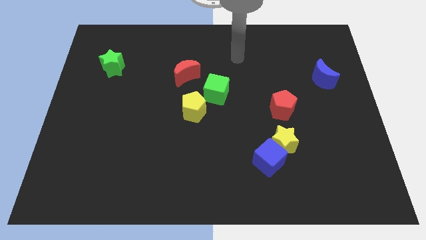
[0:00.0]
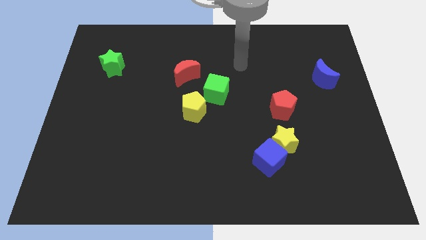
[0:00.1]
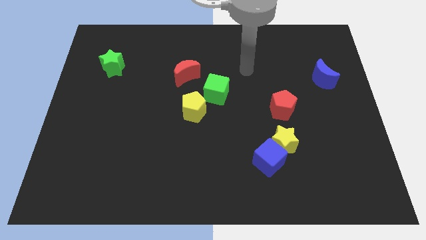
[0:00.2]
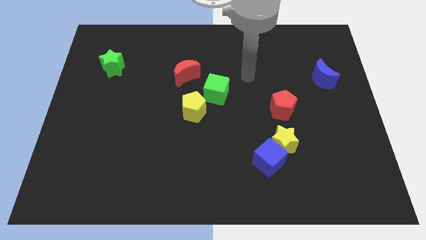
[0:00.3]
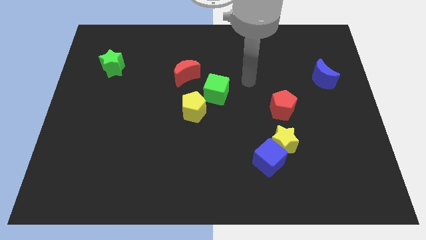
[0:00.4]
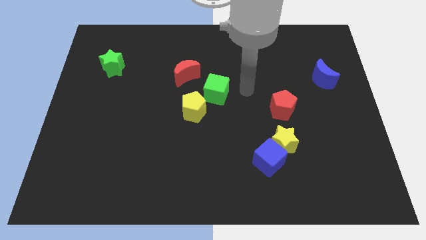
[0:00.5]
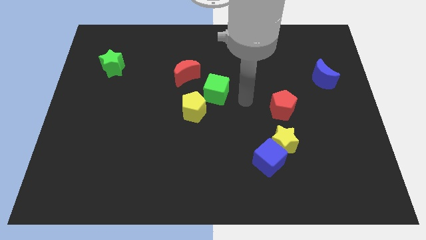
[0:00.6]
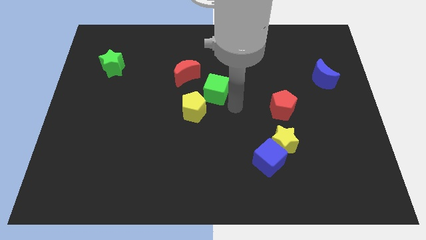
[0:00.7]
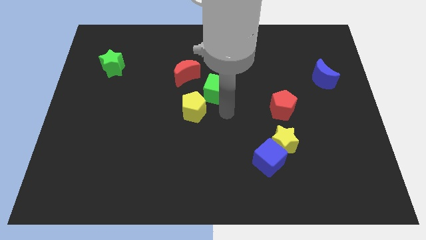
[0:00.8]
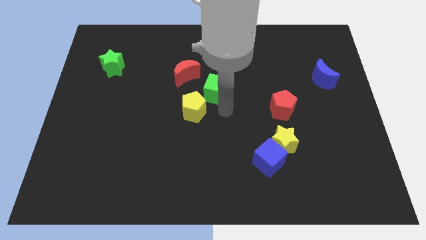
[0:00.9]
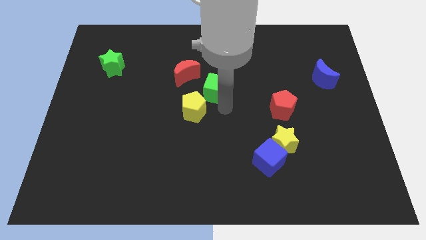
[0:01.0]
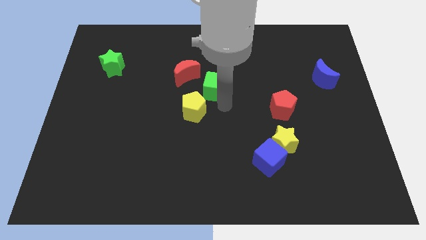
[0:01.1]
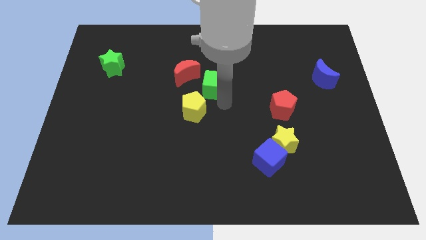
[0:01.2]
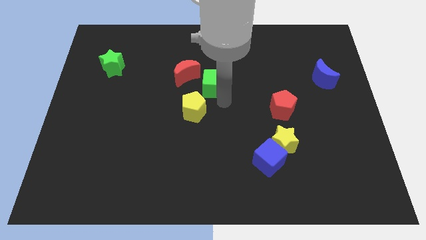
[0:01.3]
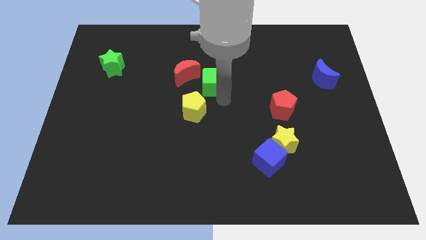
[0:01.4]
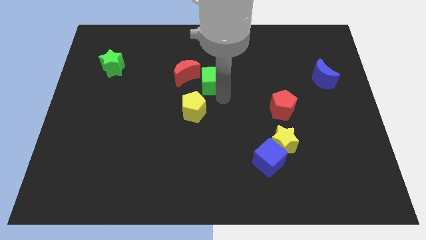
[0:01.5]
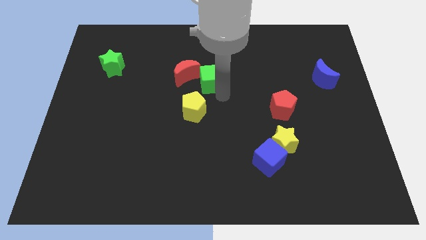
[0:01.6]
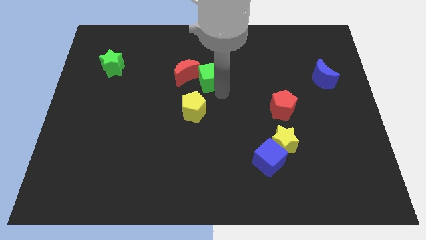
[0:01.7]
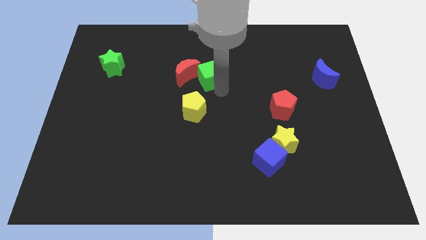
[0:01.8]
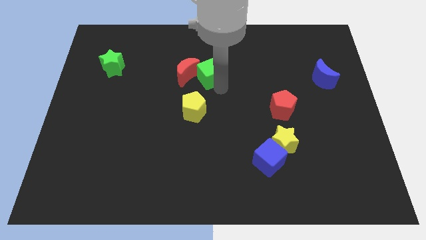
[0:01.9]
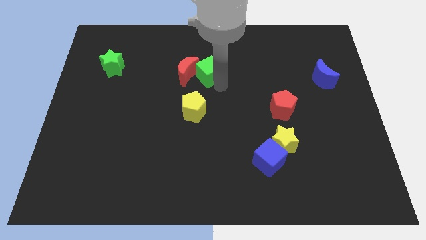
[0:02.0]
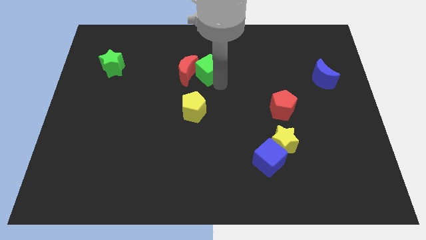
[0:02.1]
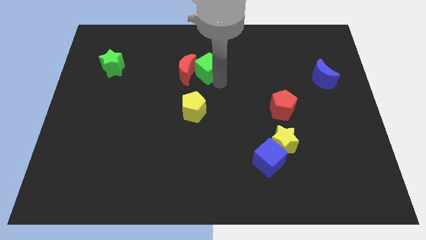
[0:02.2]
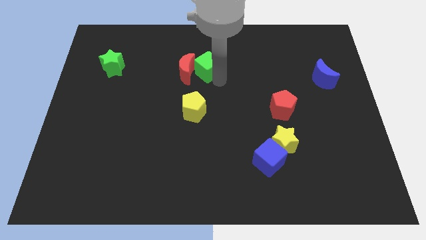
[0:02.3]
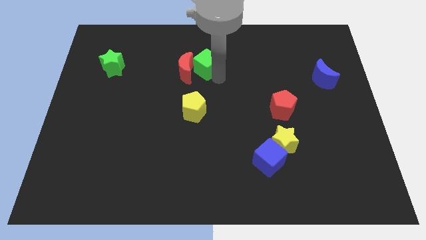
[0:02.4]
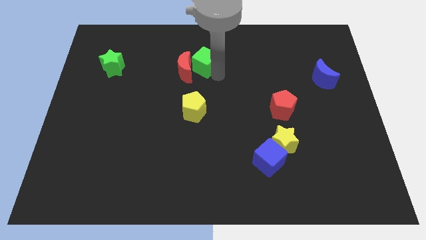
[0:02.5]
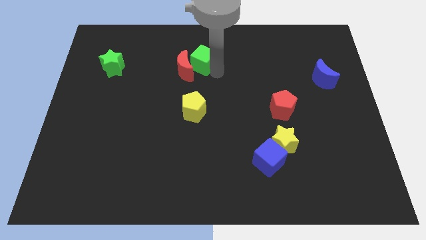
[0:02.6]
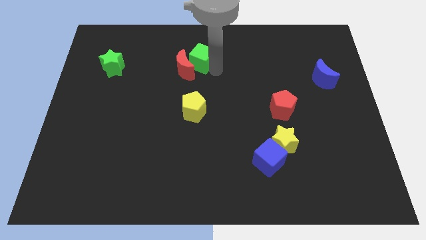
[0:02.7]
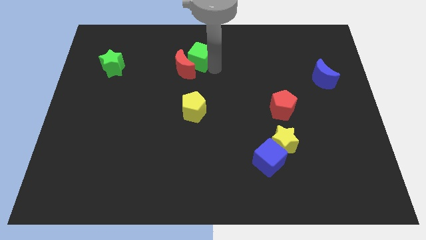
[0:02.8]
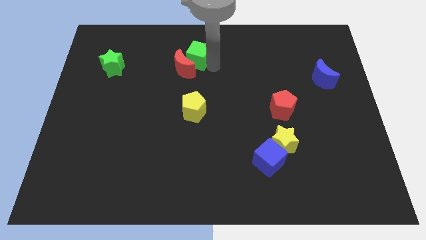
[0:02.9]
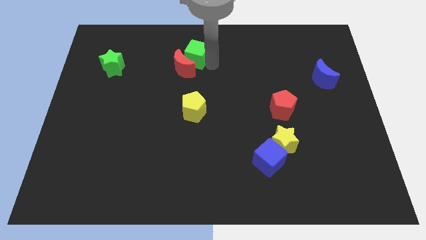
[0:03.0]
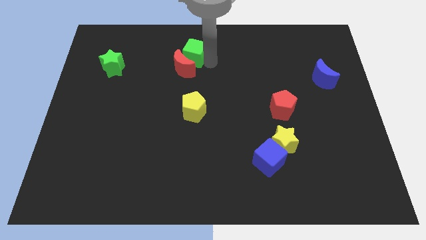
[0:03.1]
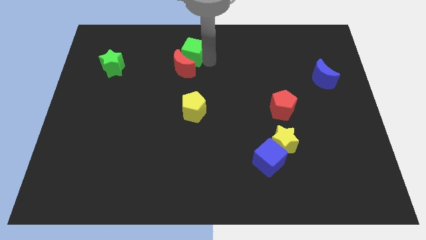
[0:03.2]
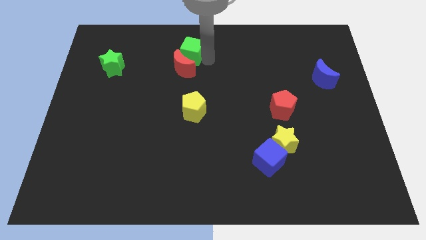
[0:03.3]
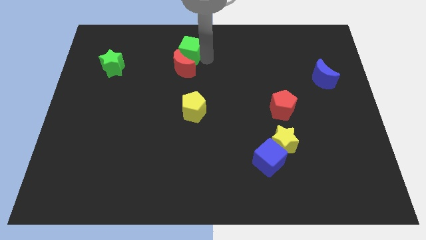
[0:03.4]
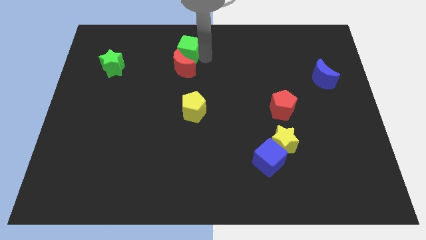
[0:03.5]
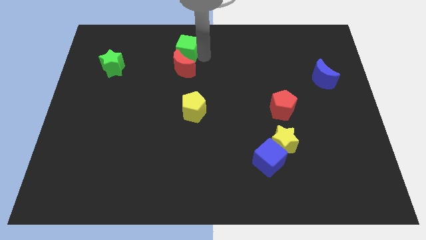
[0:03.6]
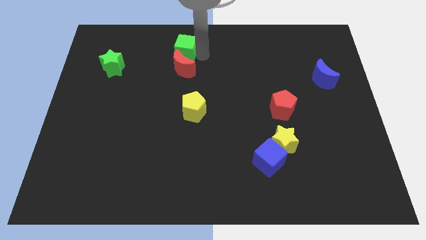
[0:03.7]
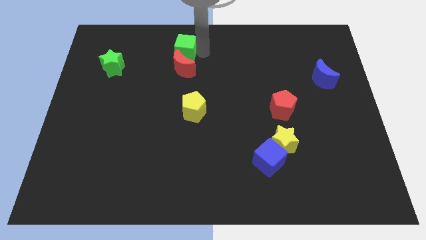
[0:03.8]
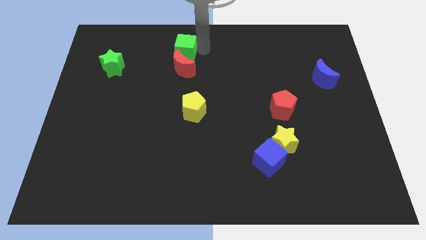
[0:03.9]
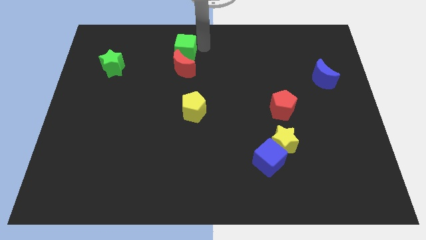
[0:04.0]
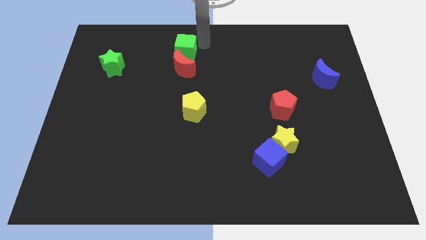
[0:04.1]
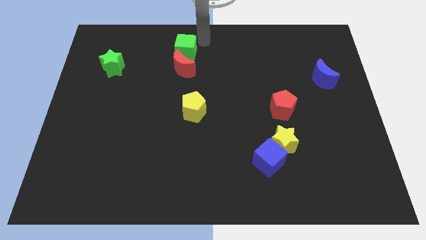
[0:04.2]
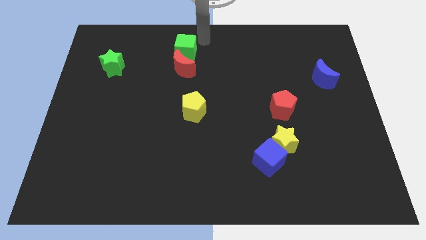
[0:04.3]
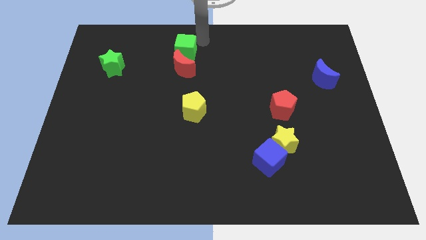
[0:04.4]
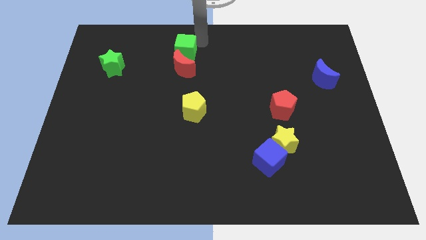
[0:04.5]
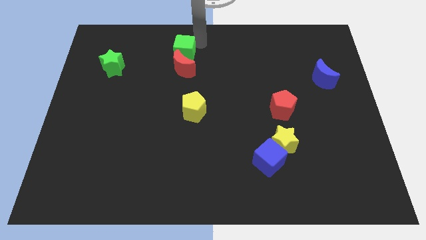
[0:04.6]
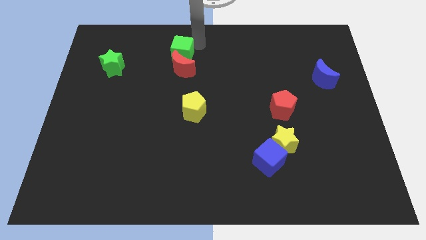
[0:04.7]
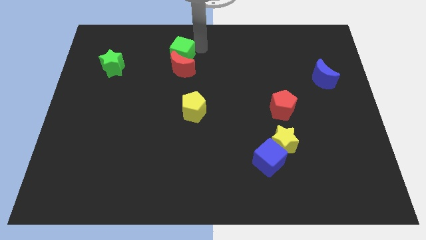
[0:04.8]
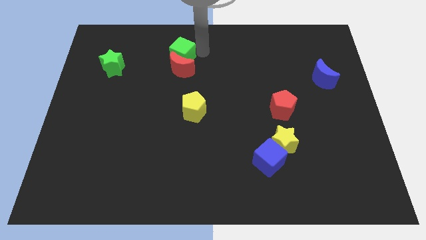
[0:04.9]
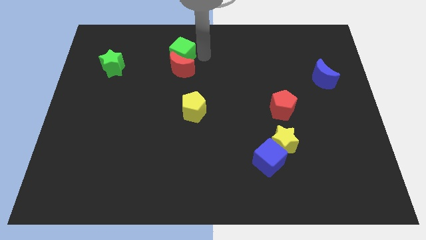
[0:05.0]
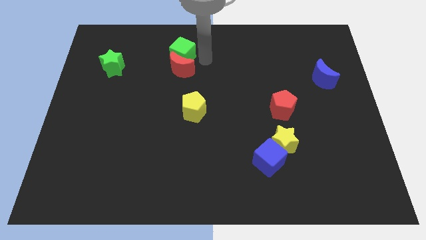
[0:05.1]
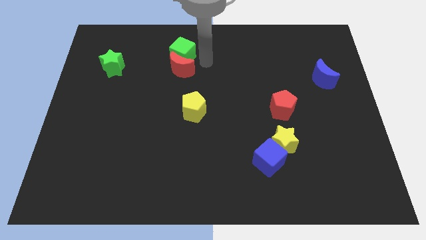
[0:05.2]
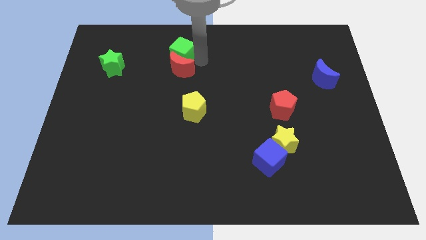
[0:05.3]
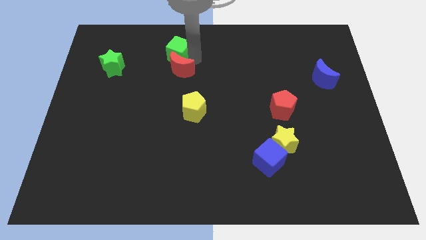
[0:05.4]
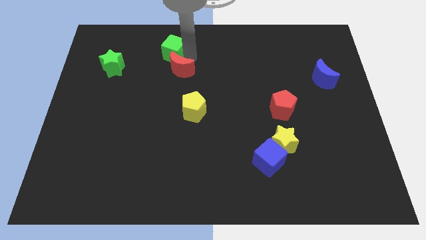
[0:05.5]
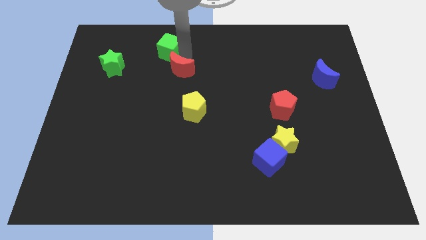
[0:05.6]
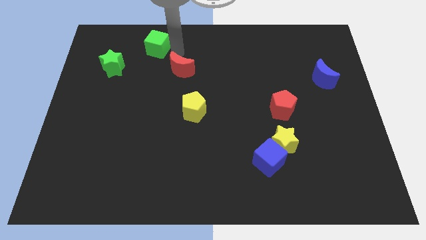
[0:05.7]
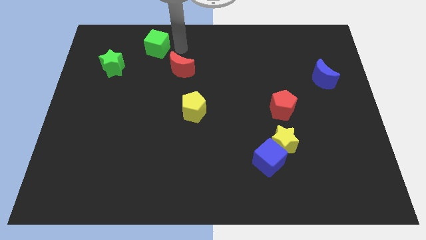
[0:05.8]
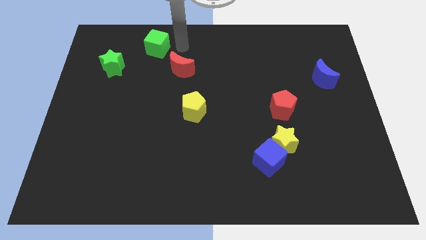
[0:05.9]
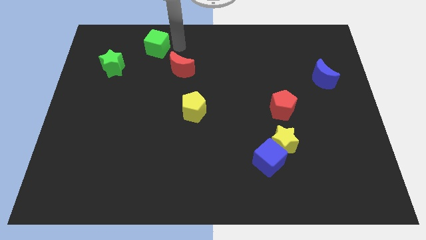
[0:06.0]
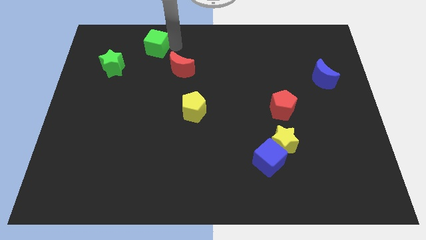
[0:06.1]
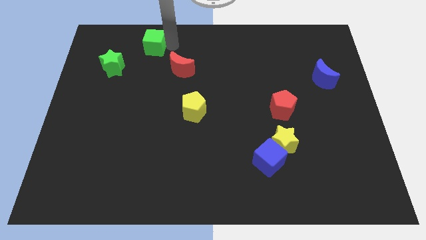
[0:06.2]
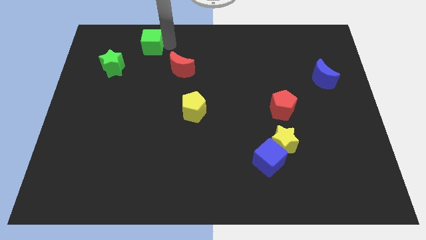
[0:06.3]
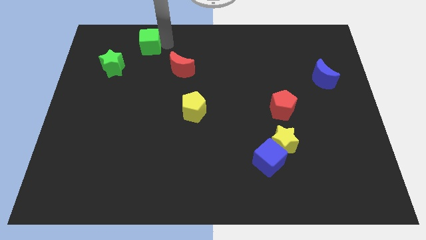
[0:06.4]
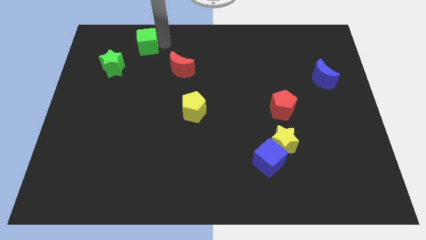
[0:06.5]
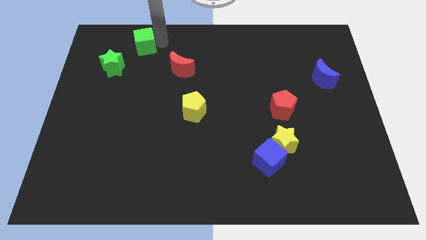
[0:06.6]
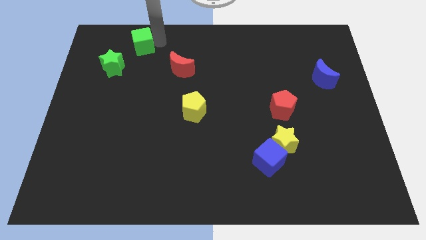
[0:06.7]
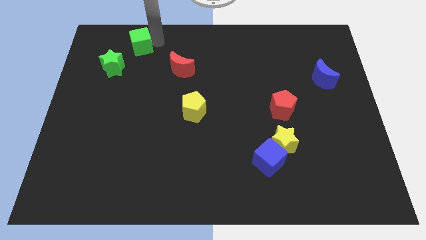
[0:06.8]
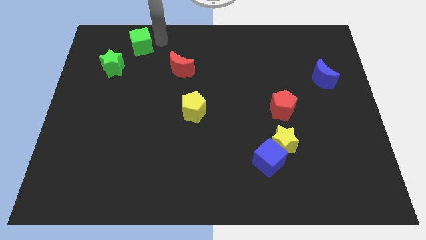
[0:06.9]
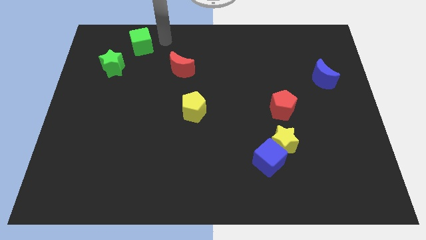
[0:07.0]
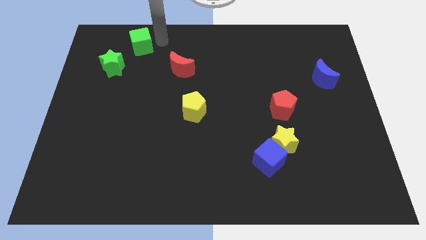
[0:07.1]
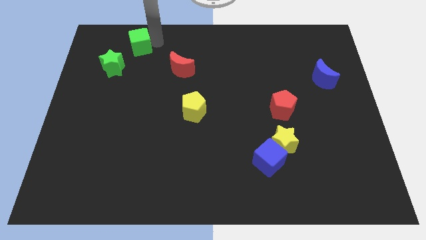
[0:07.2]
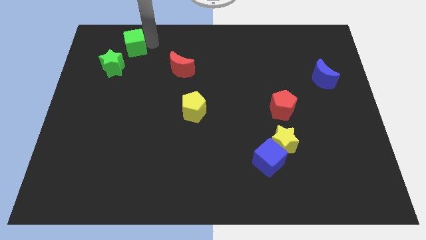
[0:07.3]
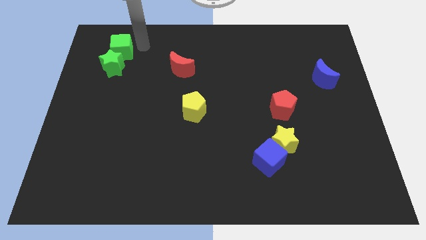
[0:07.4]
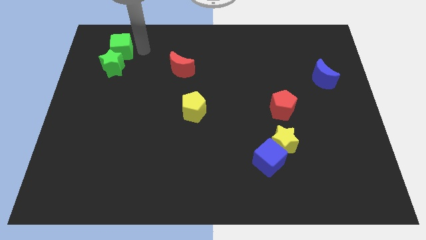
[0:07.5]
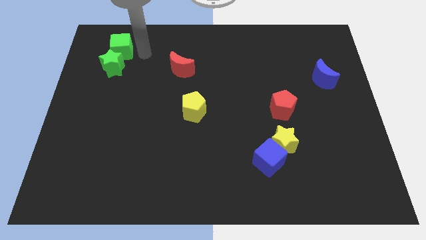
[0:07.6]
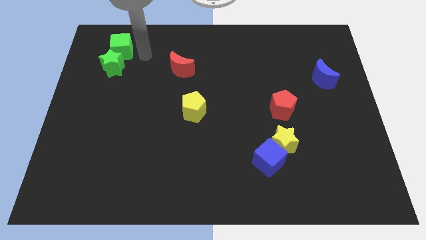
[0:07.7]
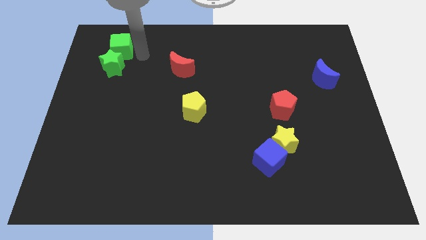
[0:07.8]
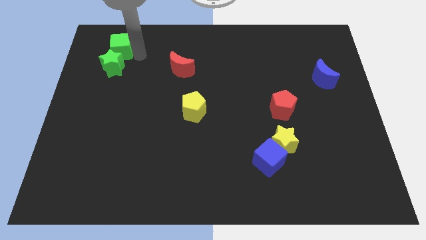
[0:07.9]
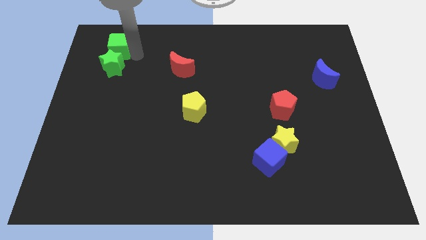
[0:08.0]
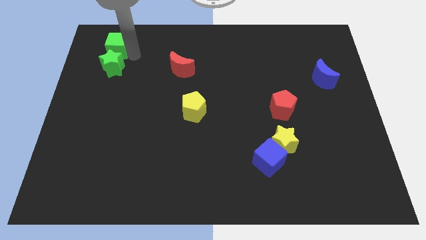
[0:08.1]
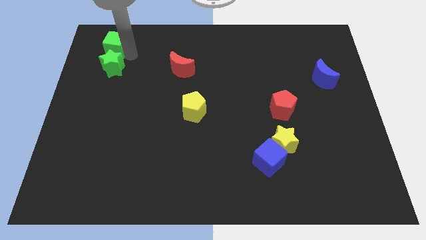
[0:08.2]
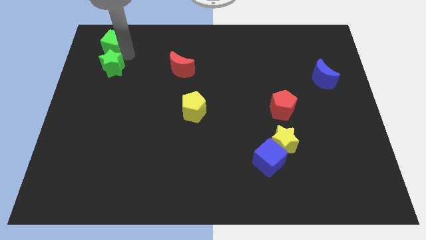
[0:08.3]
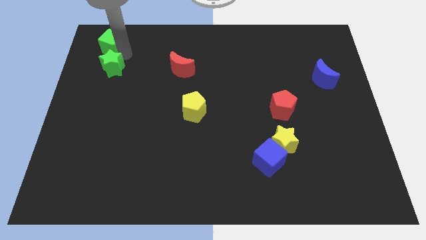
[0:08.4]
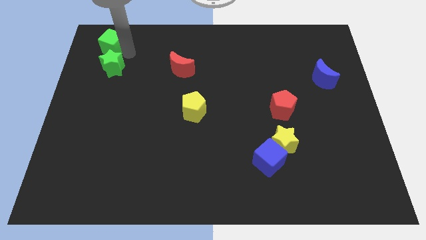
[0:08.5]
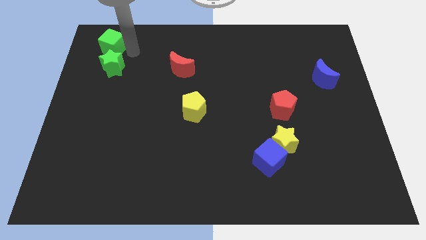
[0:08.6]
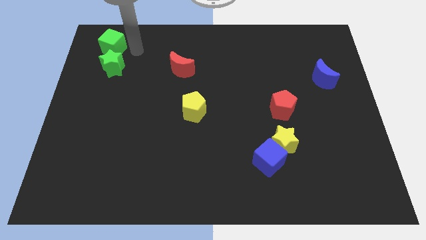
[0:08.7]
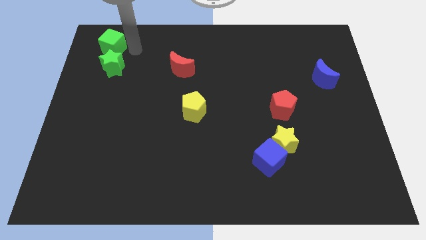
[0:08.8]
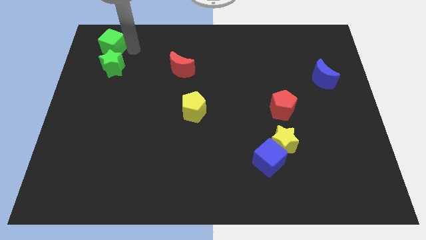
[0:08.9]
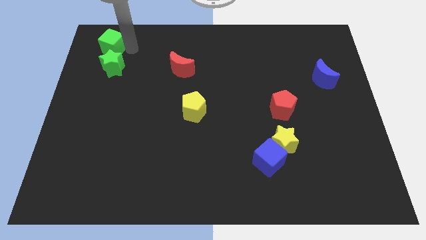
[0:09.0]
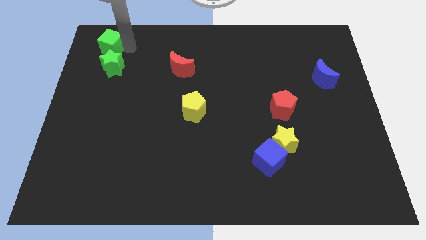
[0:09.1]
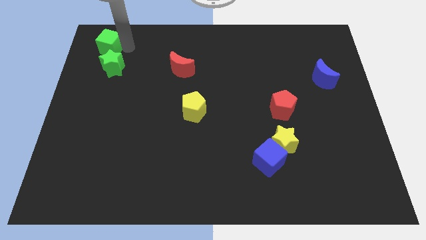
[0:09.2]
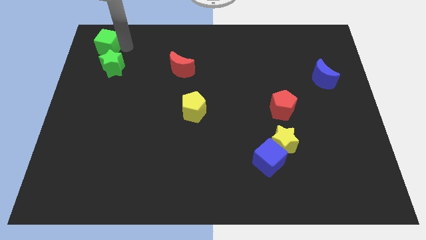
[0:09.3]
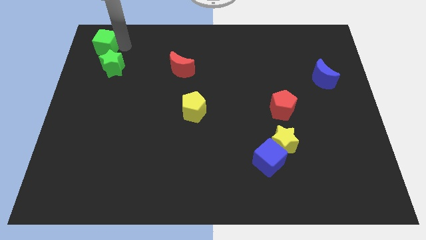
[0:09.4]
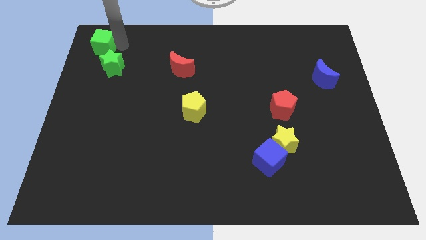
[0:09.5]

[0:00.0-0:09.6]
move the green cube to the top left of the board
